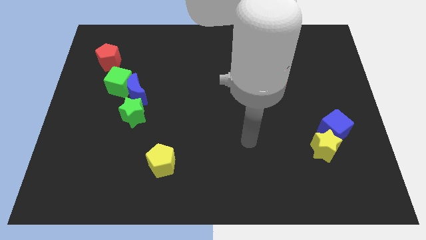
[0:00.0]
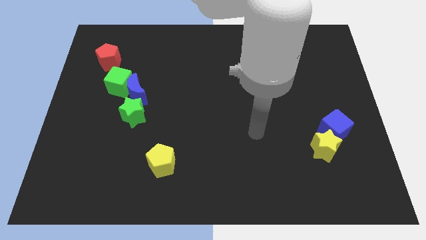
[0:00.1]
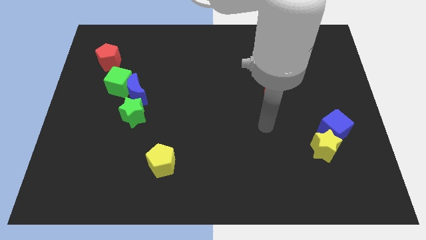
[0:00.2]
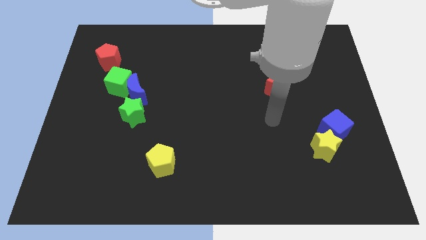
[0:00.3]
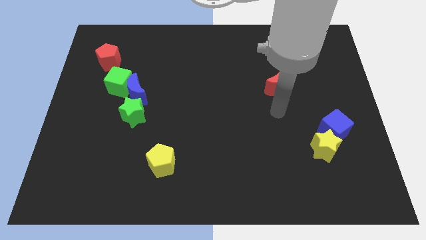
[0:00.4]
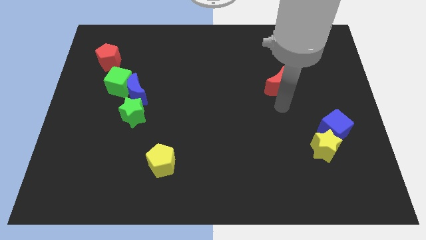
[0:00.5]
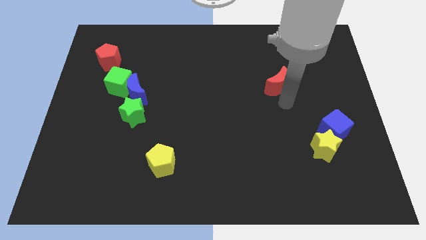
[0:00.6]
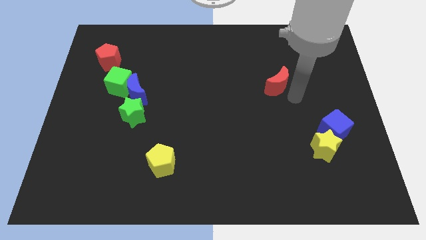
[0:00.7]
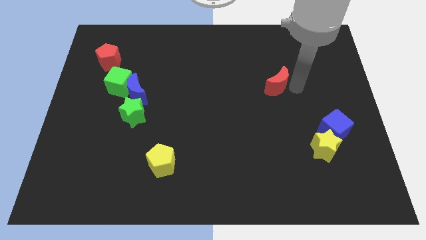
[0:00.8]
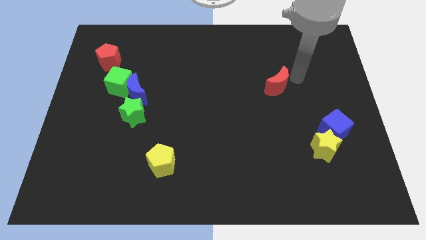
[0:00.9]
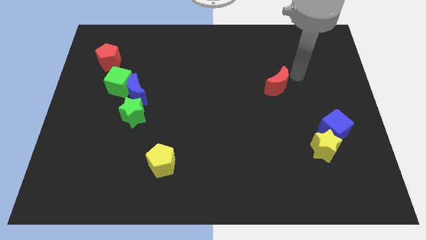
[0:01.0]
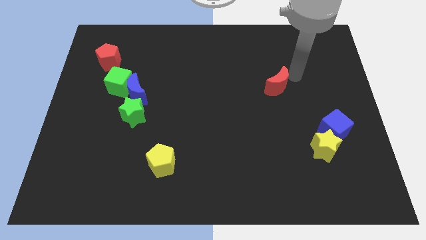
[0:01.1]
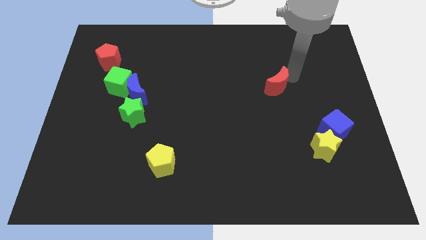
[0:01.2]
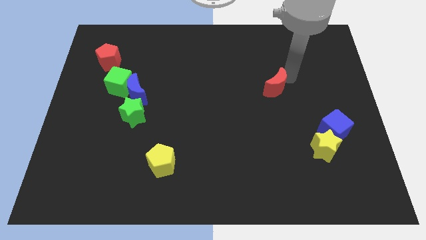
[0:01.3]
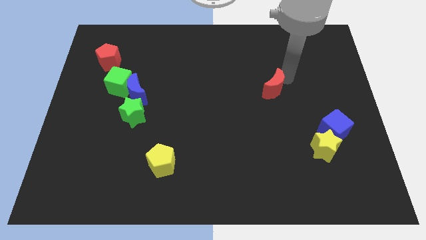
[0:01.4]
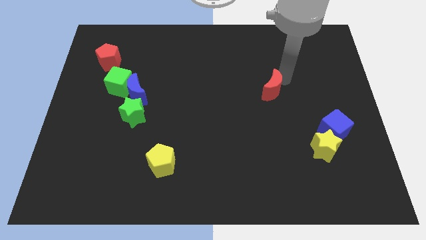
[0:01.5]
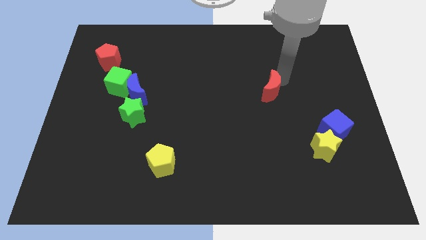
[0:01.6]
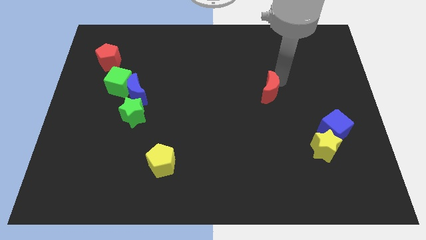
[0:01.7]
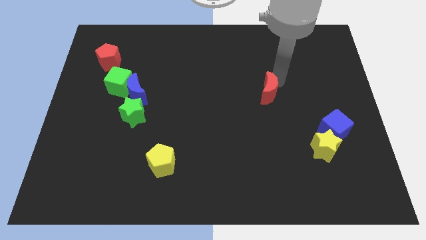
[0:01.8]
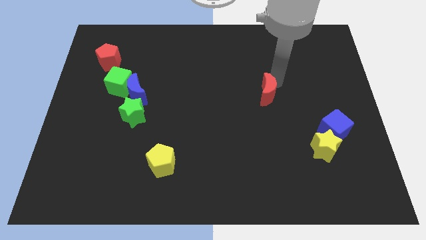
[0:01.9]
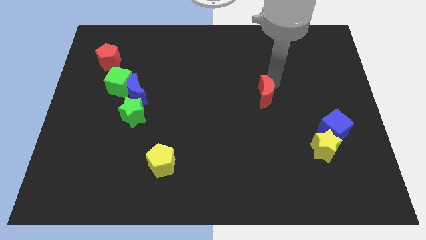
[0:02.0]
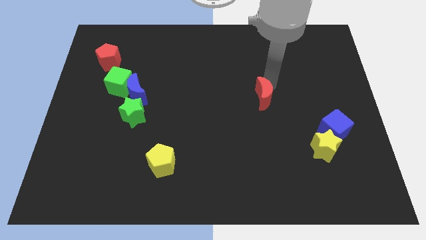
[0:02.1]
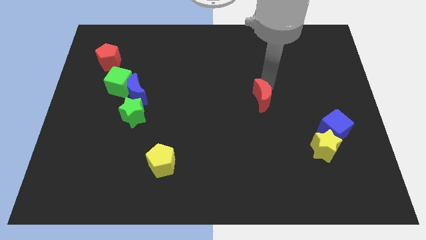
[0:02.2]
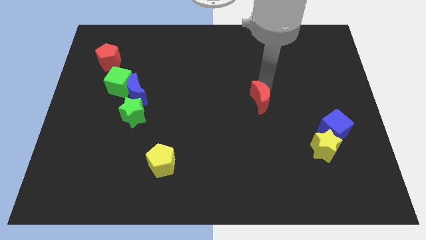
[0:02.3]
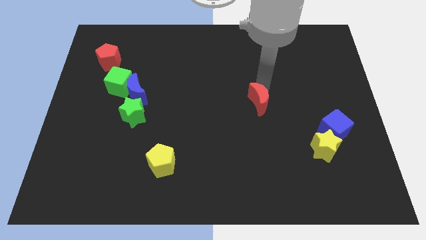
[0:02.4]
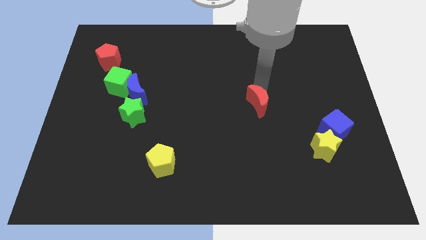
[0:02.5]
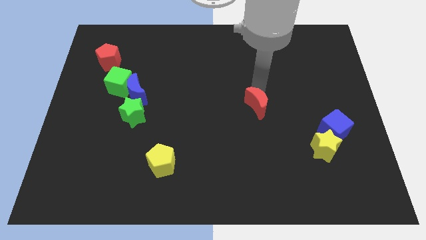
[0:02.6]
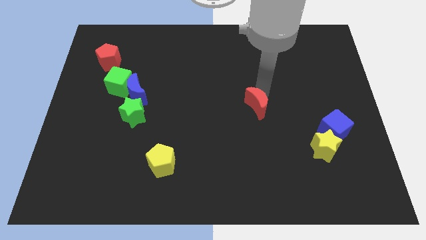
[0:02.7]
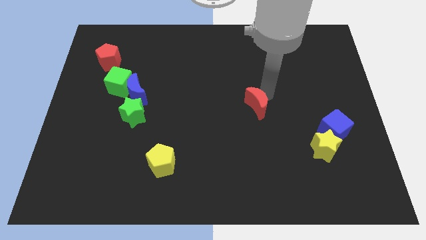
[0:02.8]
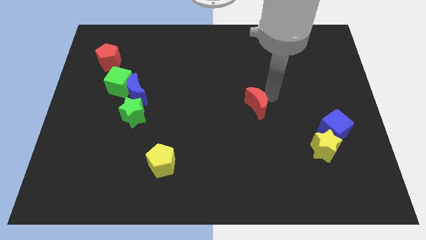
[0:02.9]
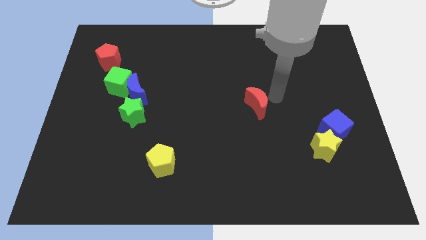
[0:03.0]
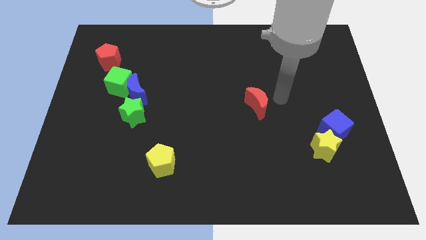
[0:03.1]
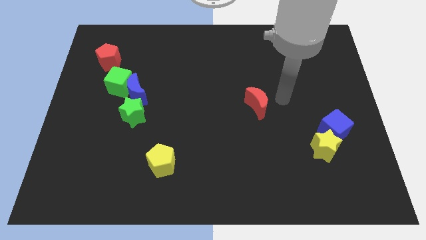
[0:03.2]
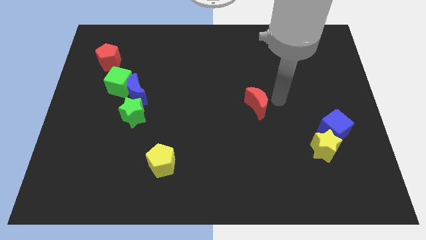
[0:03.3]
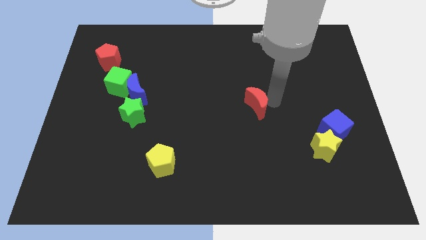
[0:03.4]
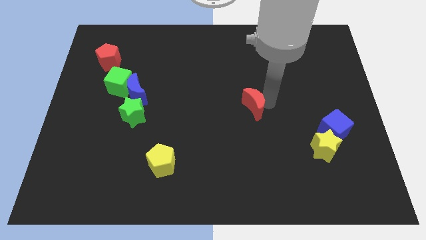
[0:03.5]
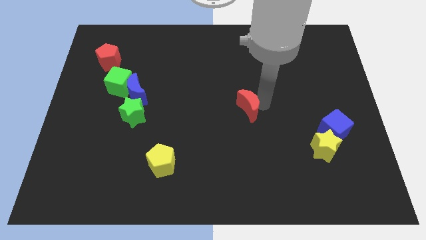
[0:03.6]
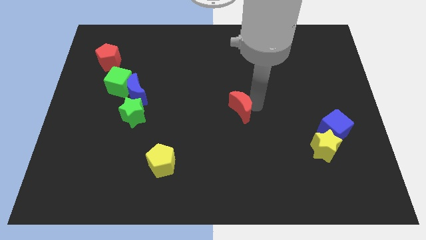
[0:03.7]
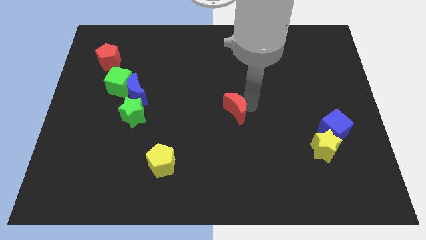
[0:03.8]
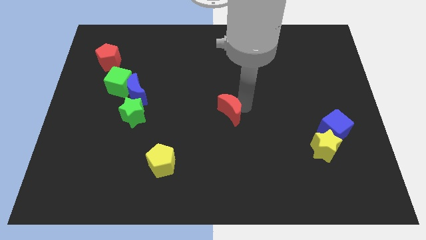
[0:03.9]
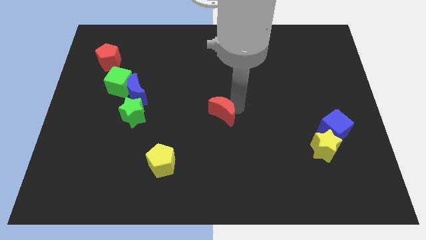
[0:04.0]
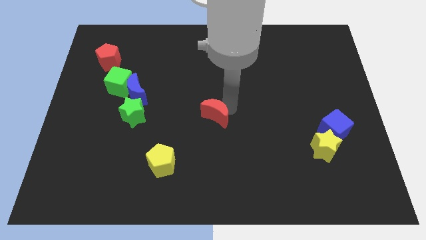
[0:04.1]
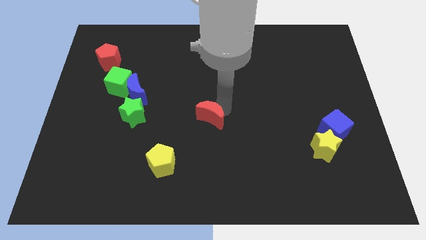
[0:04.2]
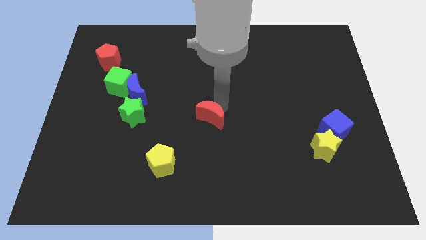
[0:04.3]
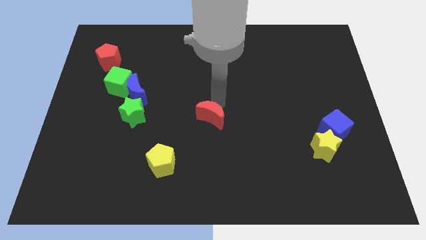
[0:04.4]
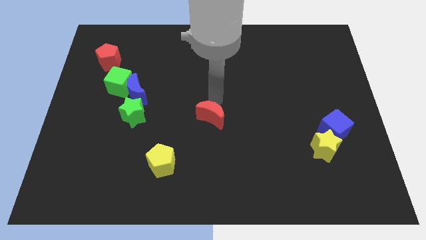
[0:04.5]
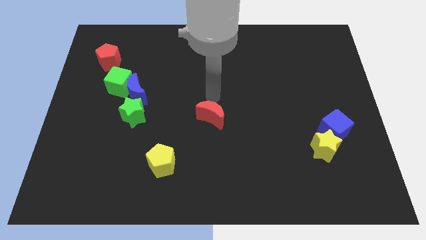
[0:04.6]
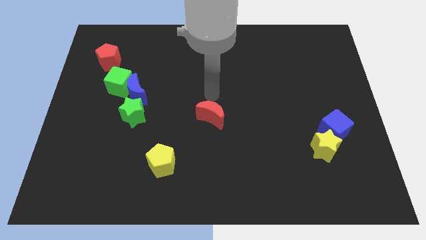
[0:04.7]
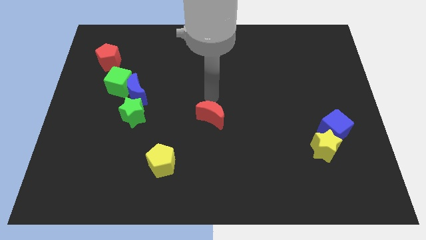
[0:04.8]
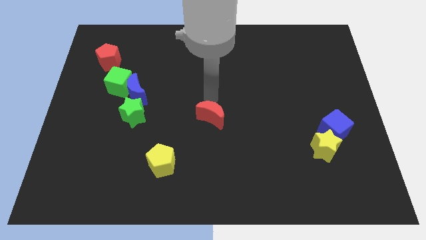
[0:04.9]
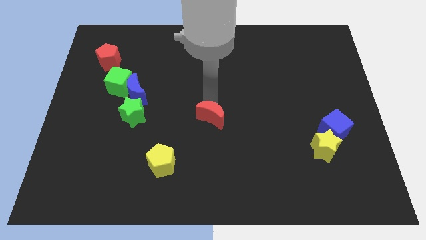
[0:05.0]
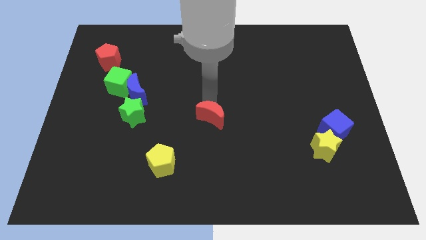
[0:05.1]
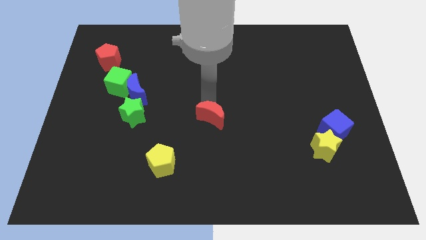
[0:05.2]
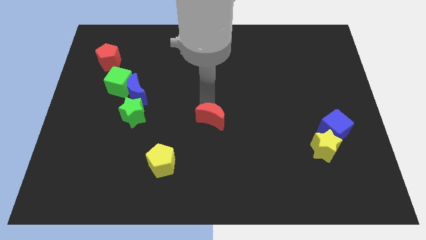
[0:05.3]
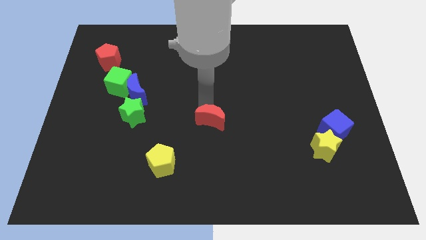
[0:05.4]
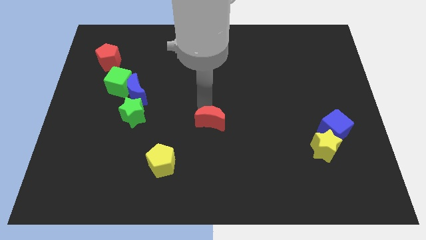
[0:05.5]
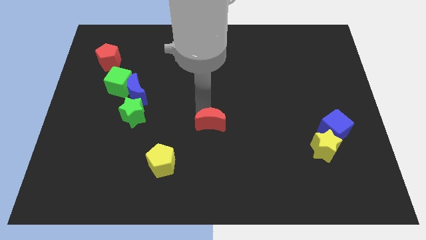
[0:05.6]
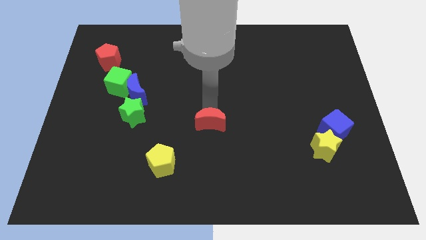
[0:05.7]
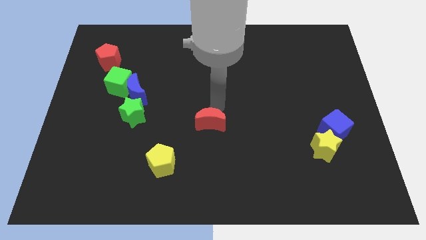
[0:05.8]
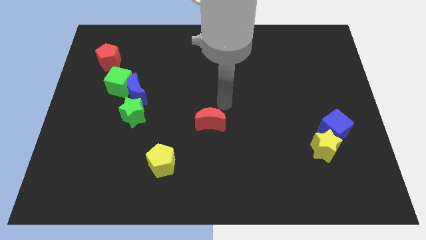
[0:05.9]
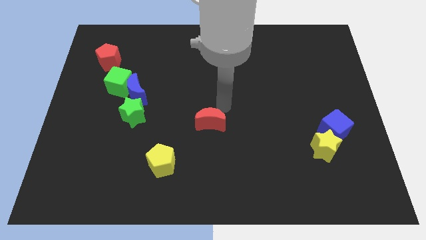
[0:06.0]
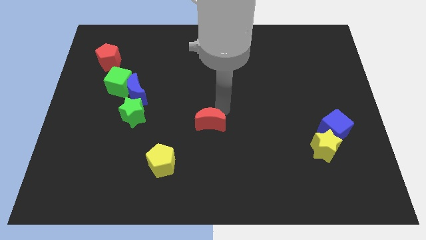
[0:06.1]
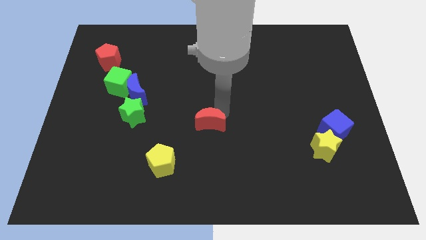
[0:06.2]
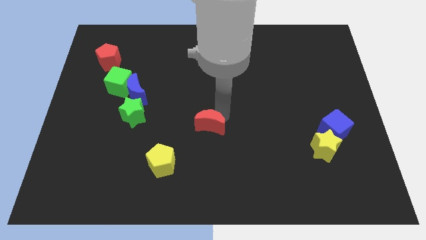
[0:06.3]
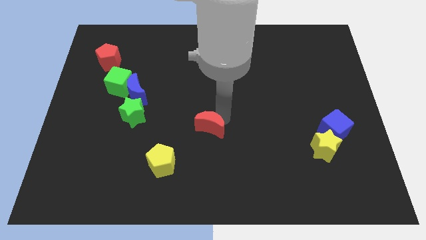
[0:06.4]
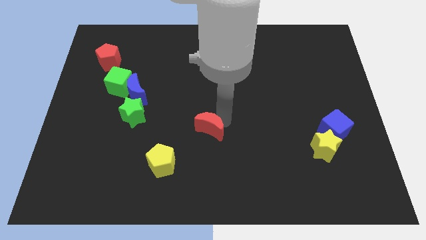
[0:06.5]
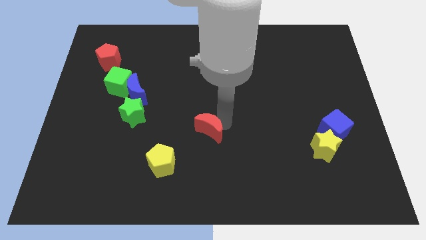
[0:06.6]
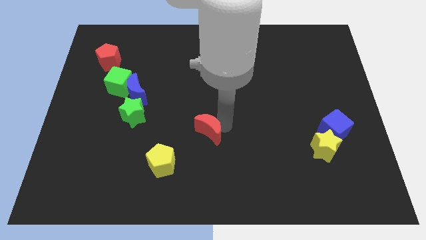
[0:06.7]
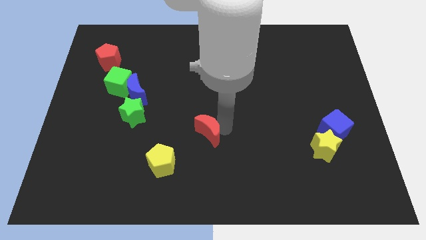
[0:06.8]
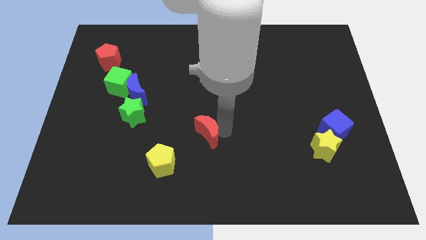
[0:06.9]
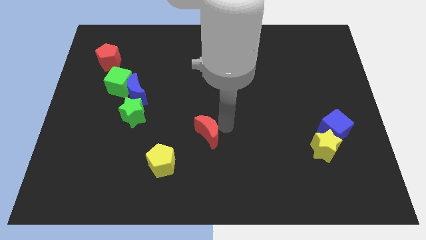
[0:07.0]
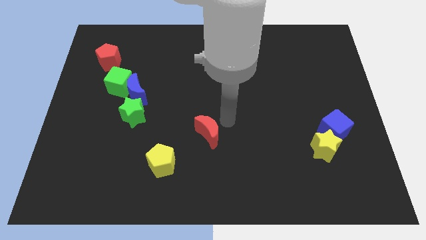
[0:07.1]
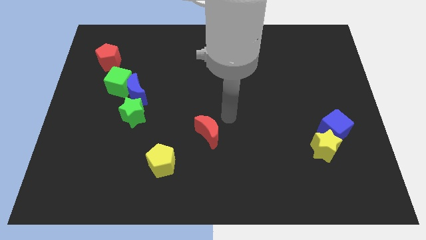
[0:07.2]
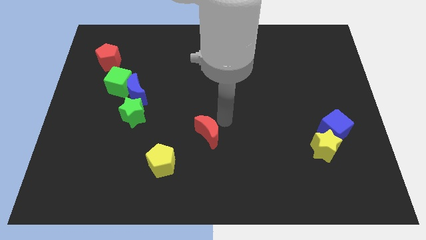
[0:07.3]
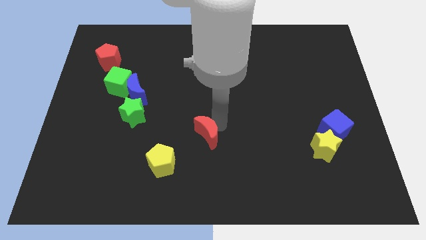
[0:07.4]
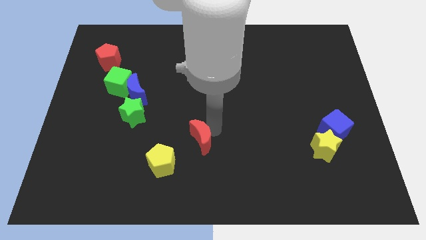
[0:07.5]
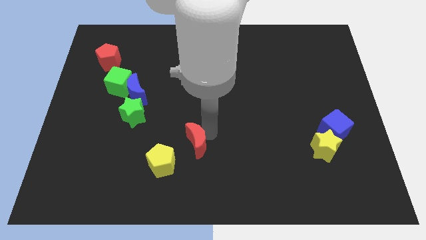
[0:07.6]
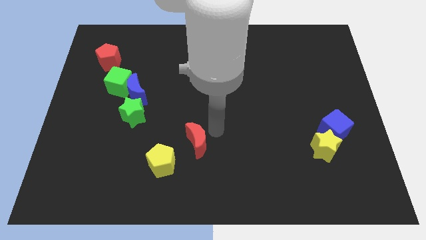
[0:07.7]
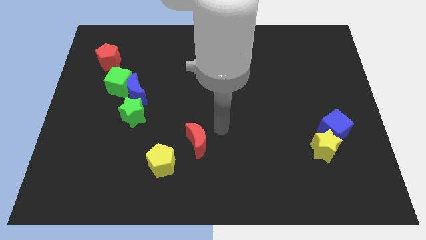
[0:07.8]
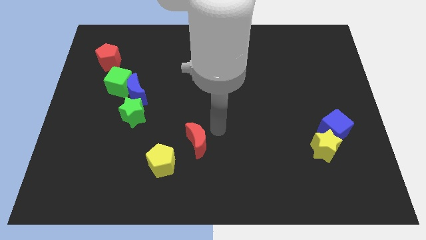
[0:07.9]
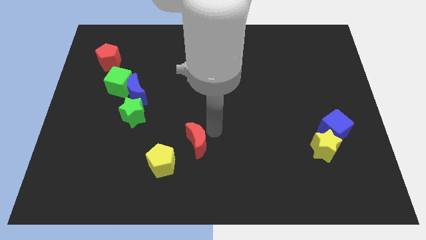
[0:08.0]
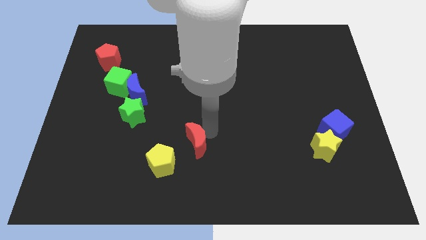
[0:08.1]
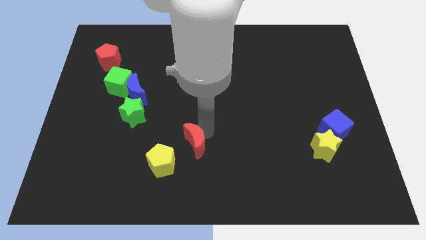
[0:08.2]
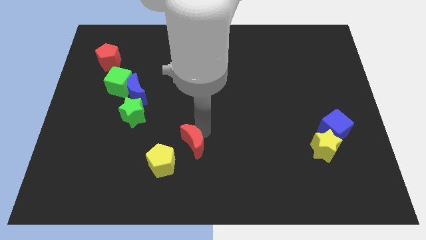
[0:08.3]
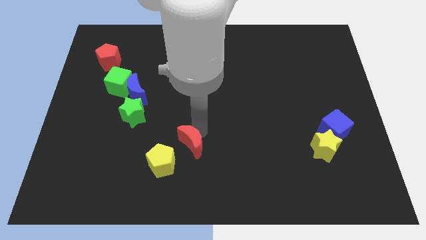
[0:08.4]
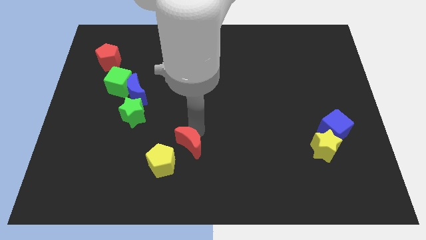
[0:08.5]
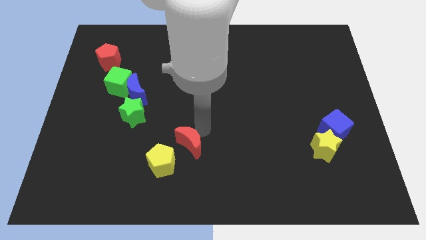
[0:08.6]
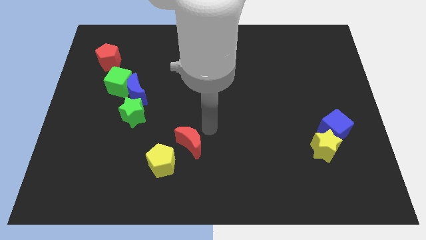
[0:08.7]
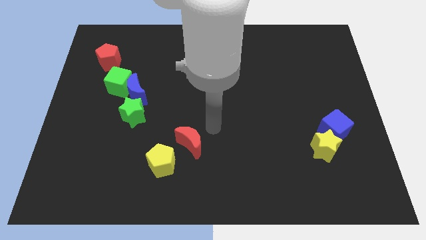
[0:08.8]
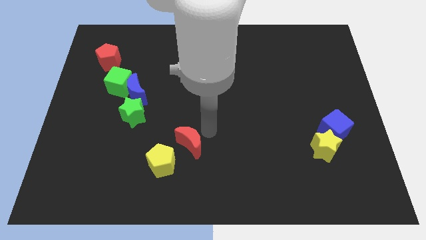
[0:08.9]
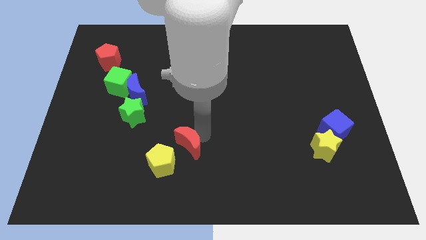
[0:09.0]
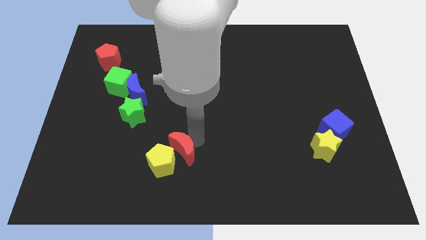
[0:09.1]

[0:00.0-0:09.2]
push the red moon close to the yellow pentagon
